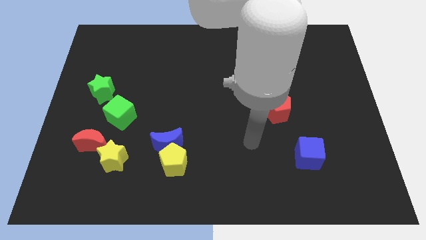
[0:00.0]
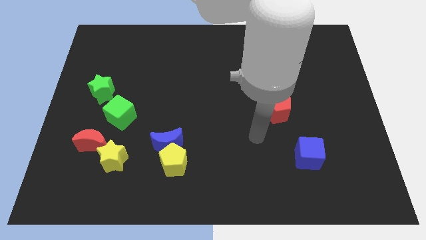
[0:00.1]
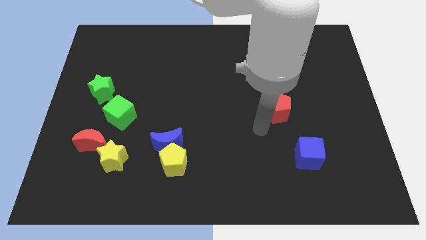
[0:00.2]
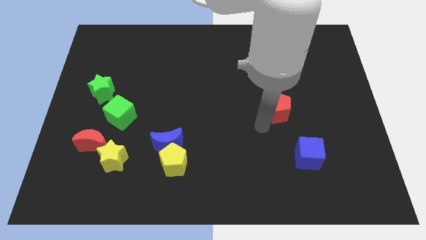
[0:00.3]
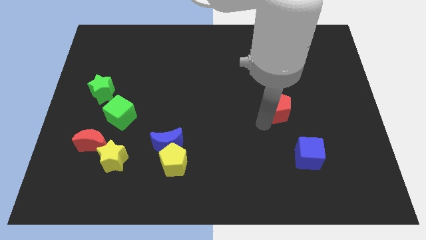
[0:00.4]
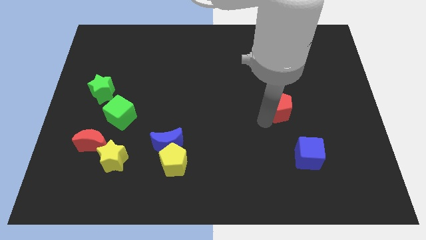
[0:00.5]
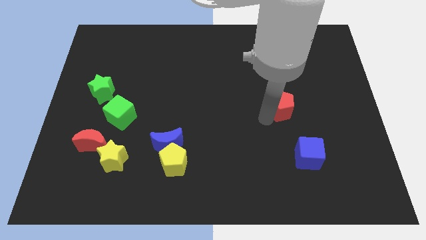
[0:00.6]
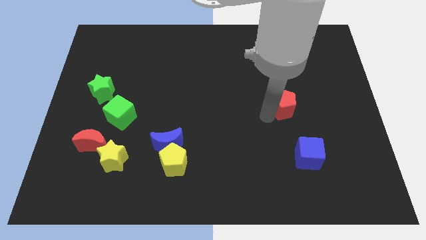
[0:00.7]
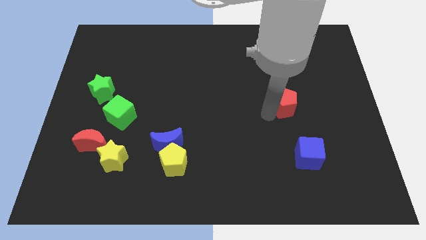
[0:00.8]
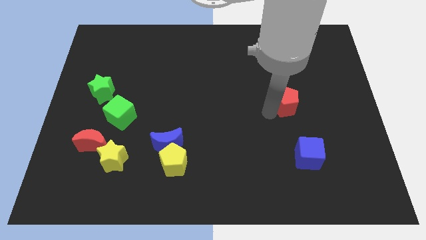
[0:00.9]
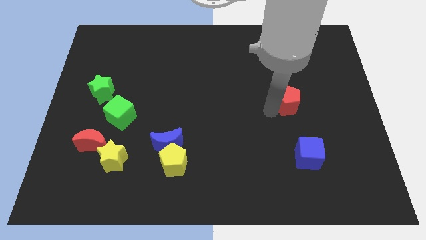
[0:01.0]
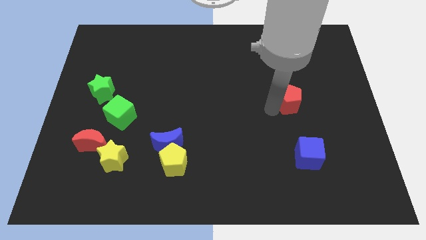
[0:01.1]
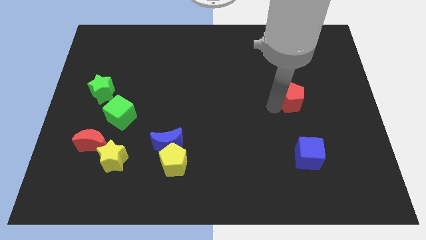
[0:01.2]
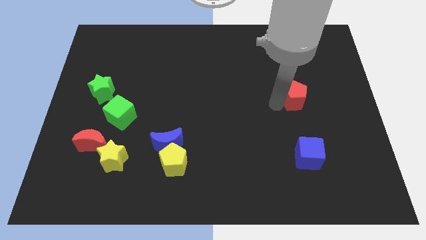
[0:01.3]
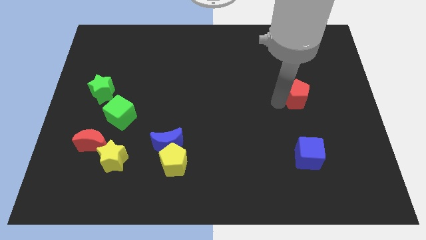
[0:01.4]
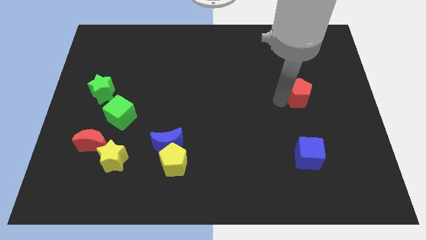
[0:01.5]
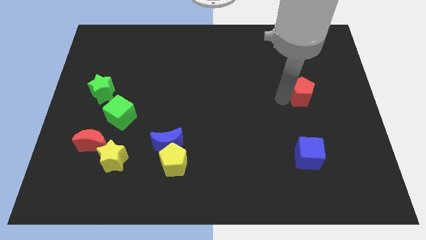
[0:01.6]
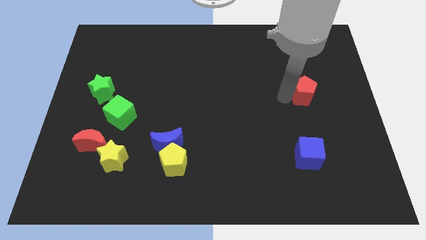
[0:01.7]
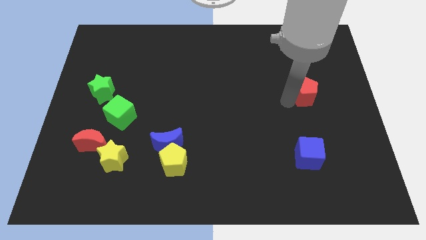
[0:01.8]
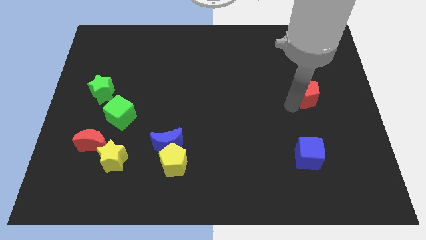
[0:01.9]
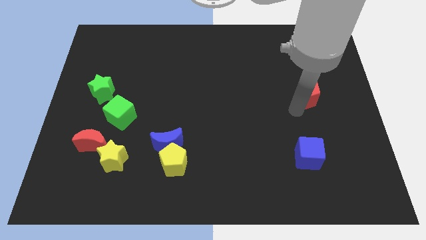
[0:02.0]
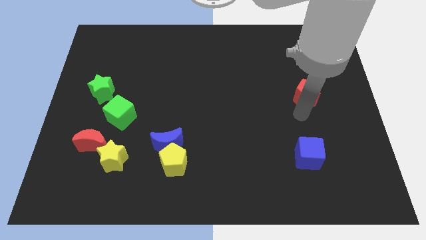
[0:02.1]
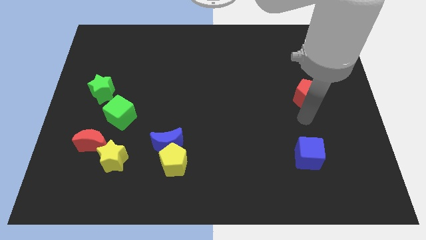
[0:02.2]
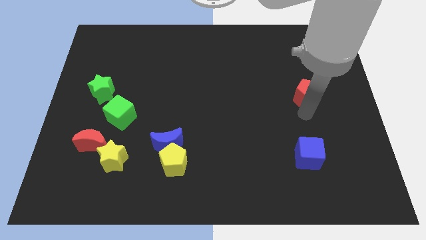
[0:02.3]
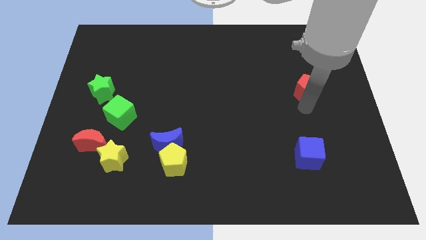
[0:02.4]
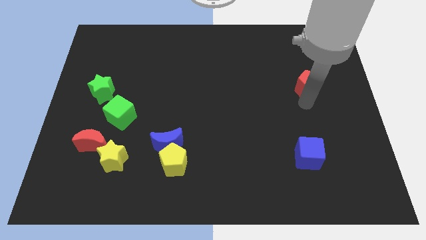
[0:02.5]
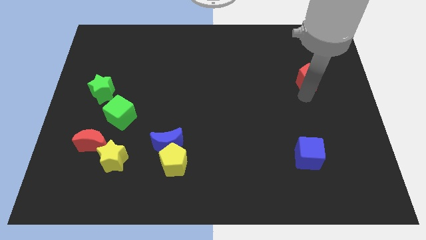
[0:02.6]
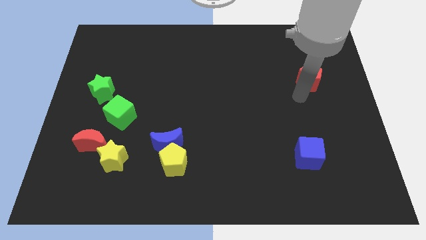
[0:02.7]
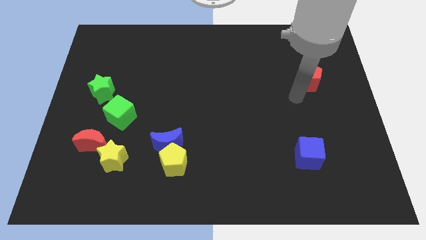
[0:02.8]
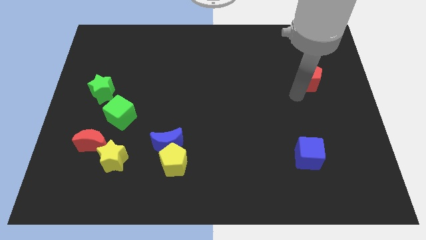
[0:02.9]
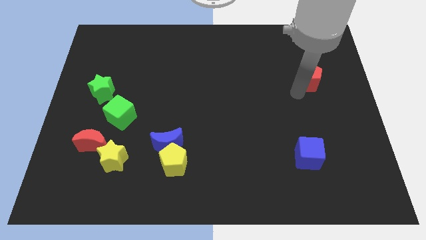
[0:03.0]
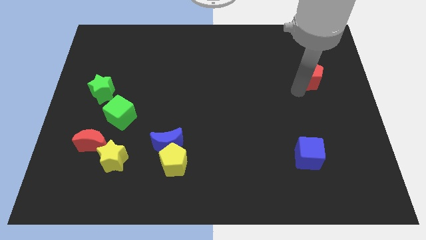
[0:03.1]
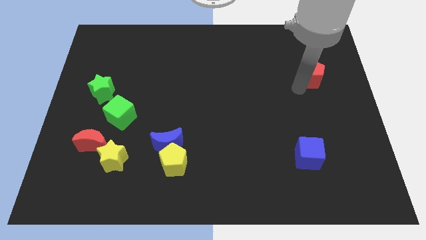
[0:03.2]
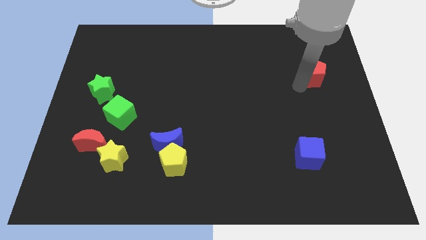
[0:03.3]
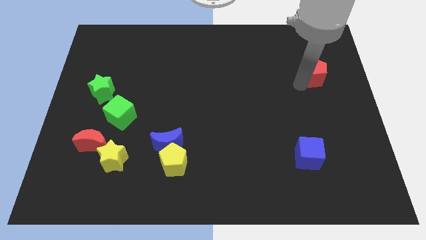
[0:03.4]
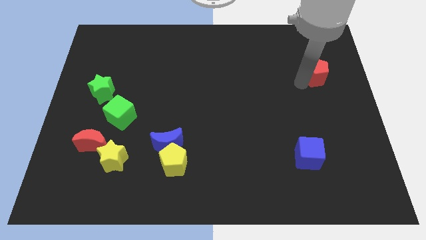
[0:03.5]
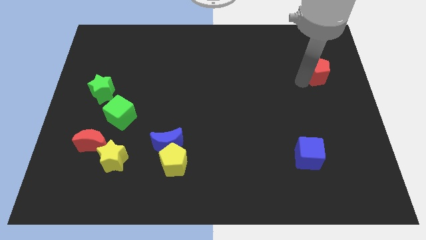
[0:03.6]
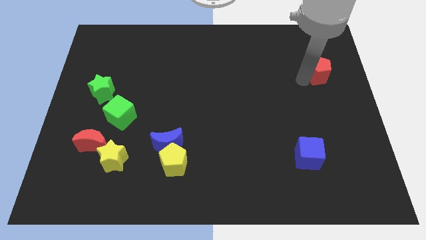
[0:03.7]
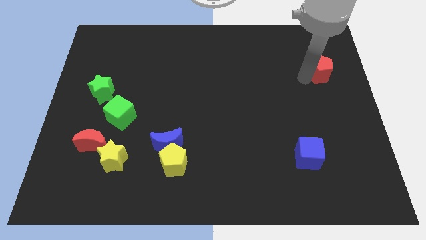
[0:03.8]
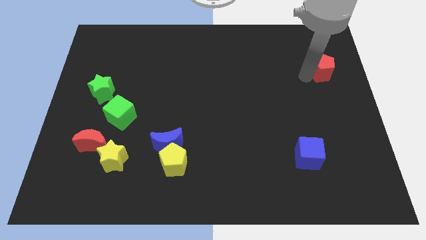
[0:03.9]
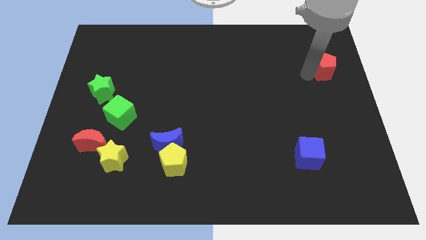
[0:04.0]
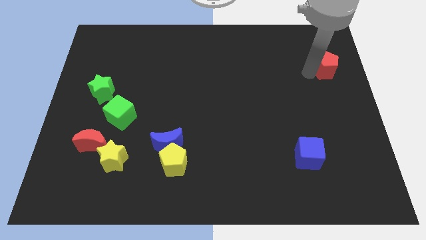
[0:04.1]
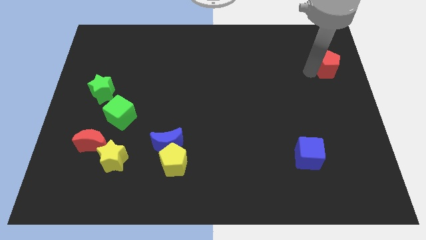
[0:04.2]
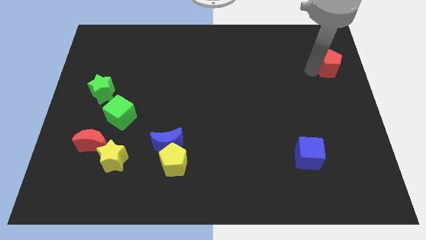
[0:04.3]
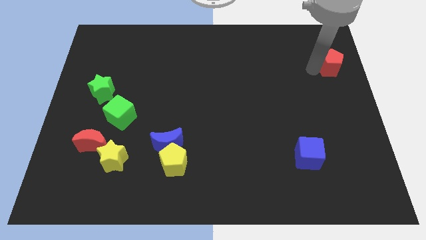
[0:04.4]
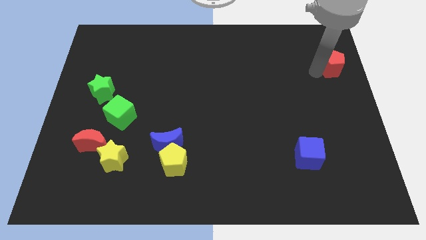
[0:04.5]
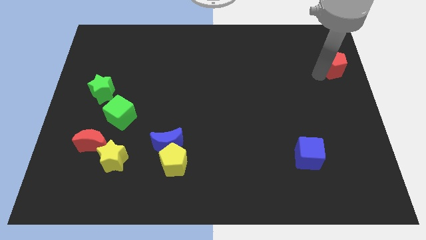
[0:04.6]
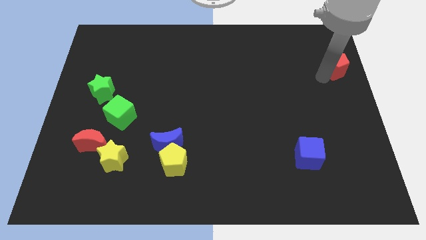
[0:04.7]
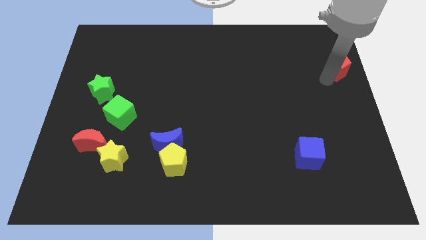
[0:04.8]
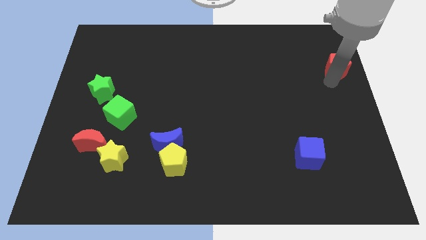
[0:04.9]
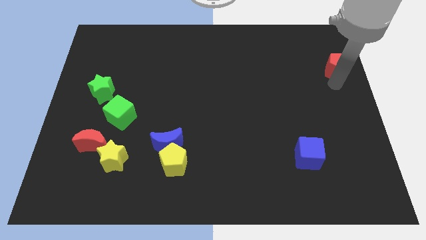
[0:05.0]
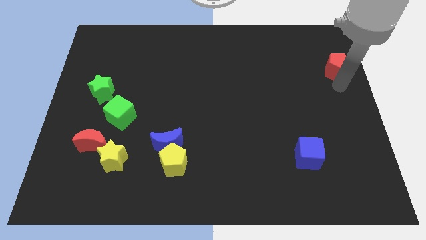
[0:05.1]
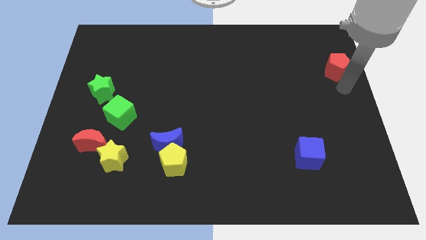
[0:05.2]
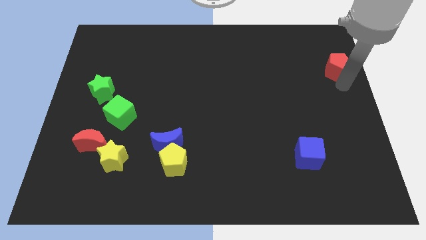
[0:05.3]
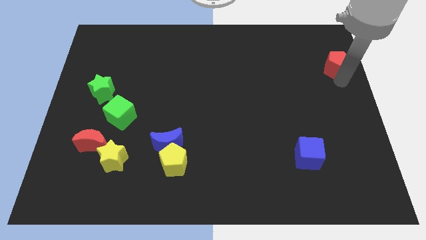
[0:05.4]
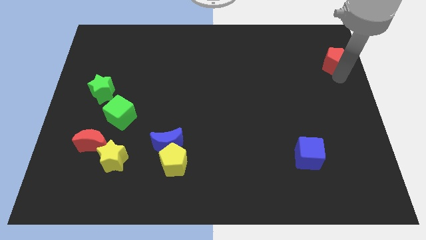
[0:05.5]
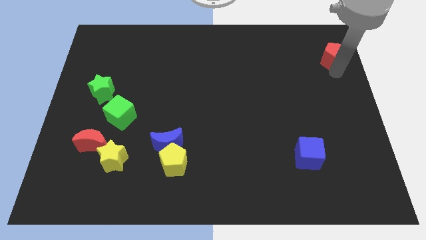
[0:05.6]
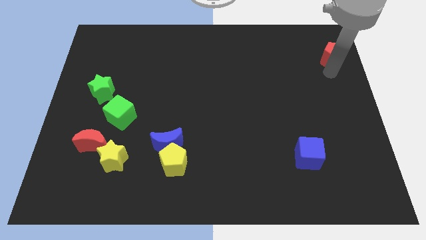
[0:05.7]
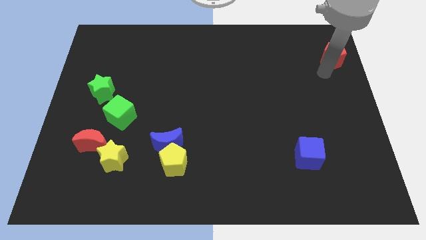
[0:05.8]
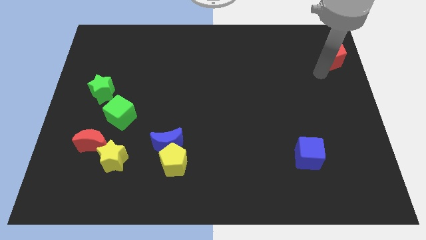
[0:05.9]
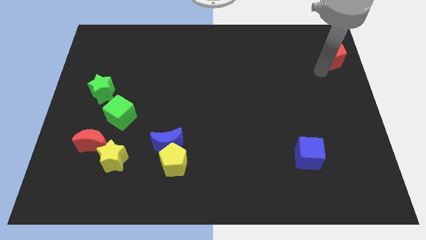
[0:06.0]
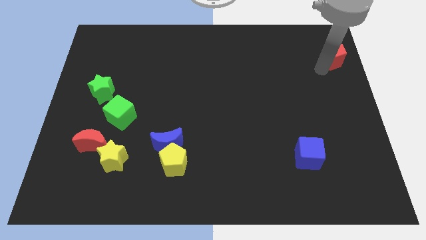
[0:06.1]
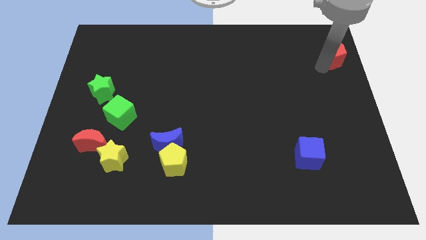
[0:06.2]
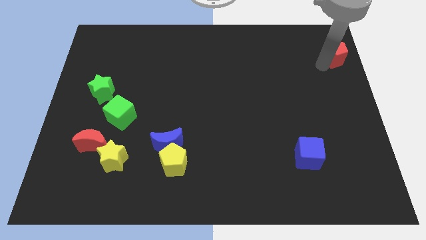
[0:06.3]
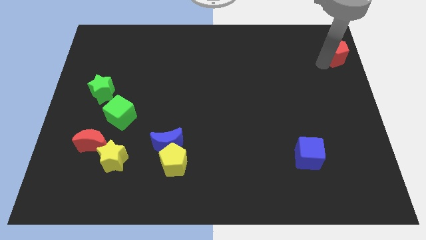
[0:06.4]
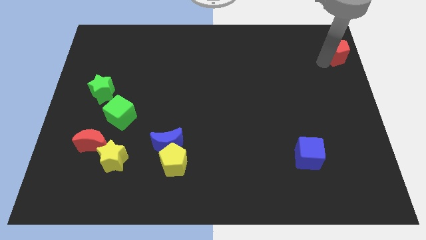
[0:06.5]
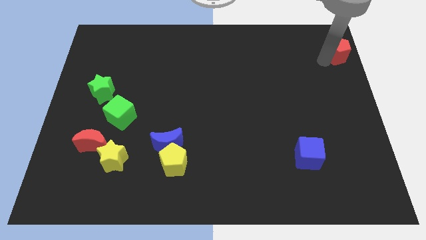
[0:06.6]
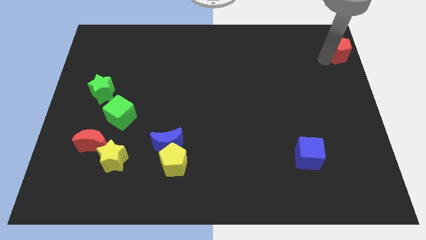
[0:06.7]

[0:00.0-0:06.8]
move the red pentagon to the top right of the board
